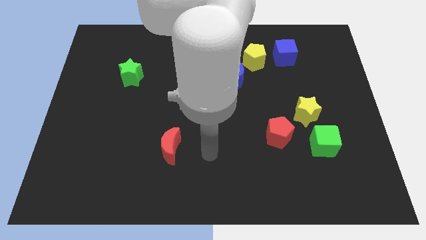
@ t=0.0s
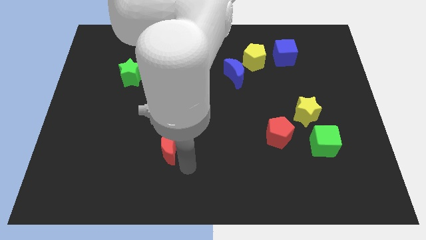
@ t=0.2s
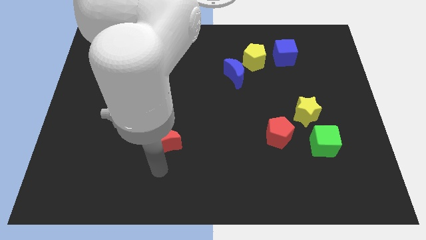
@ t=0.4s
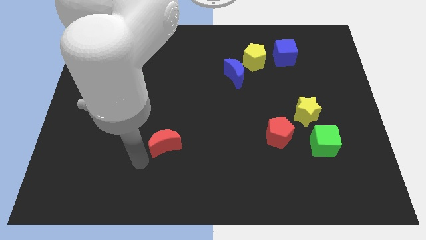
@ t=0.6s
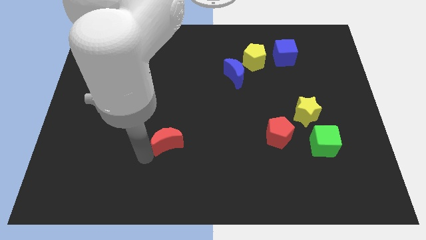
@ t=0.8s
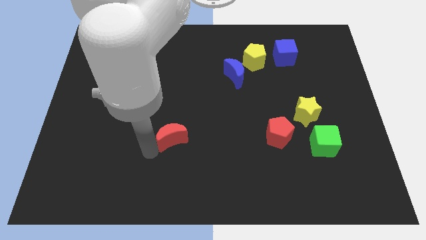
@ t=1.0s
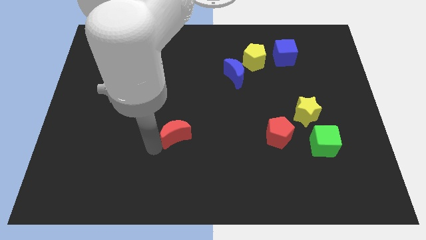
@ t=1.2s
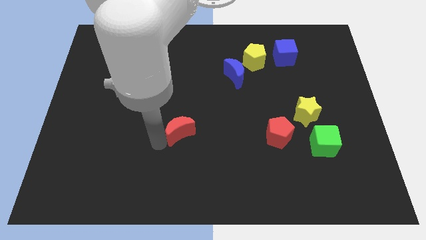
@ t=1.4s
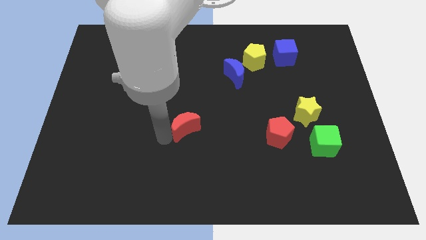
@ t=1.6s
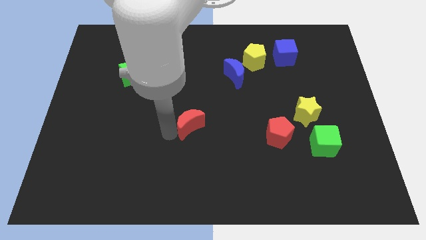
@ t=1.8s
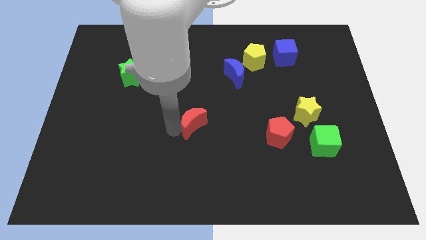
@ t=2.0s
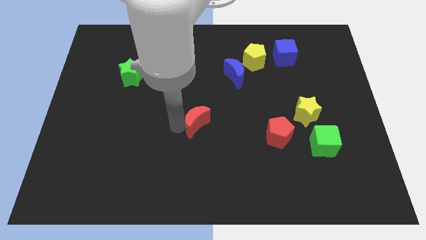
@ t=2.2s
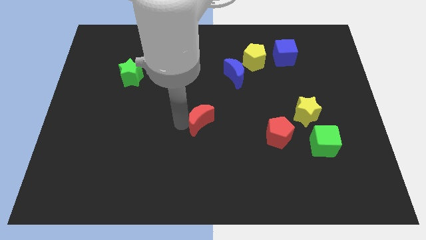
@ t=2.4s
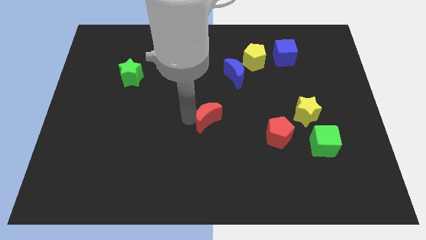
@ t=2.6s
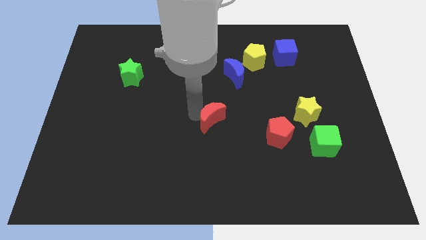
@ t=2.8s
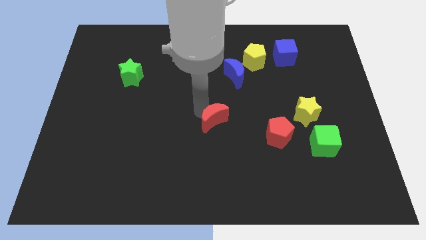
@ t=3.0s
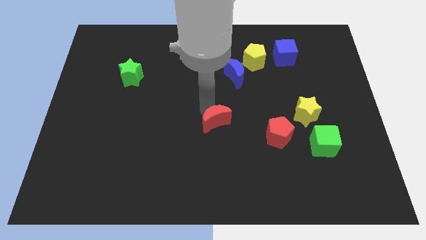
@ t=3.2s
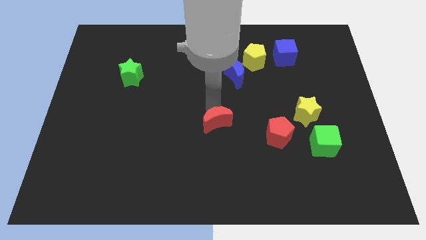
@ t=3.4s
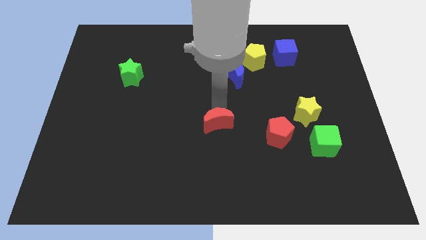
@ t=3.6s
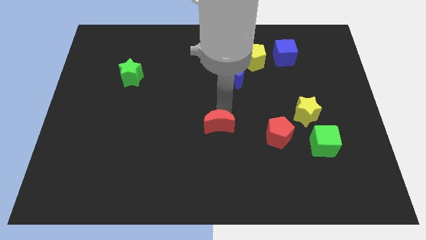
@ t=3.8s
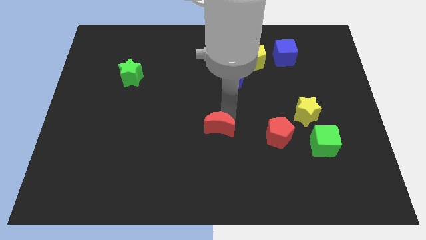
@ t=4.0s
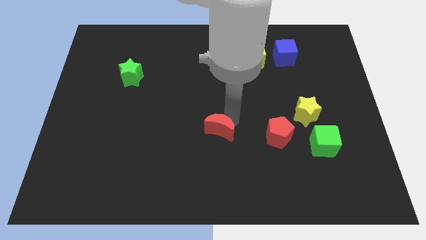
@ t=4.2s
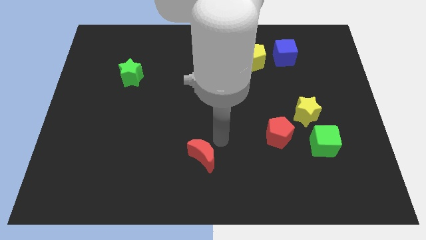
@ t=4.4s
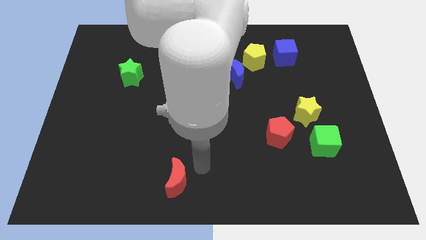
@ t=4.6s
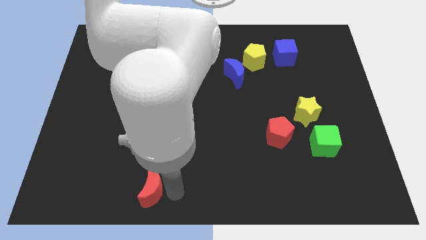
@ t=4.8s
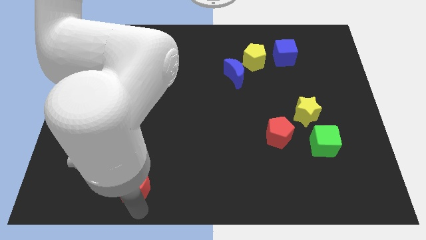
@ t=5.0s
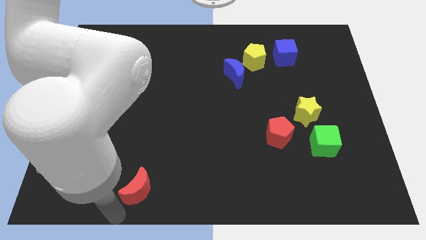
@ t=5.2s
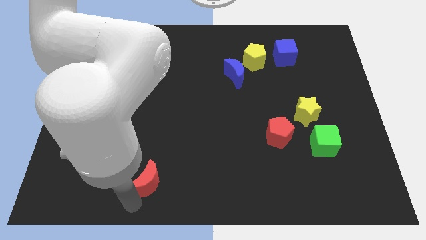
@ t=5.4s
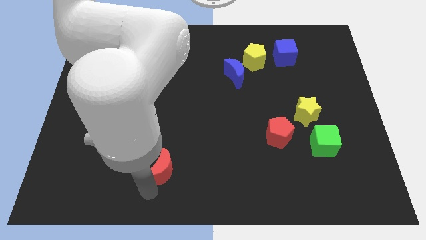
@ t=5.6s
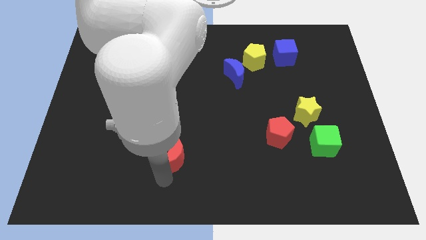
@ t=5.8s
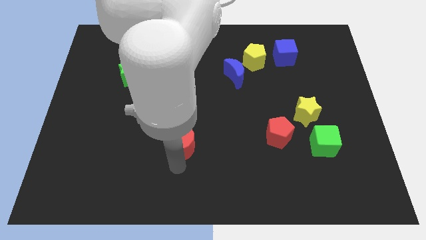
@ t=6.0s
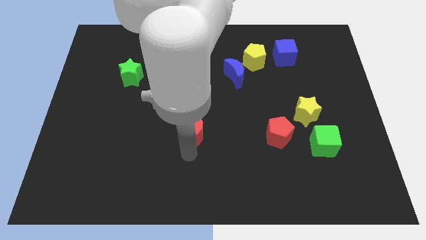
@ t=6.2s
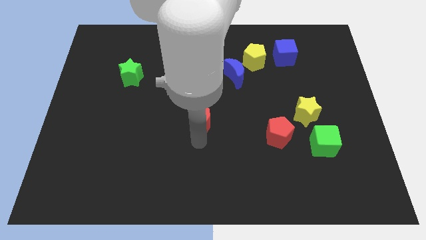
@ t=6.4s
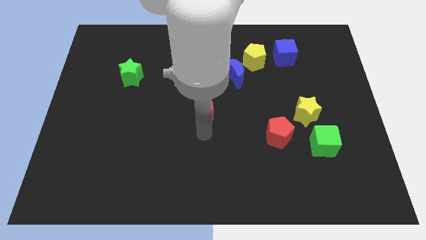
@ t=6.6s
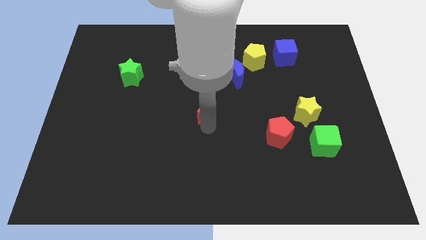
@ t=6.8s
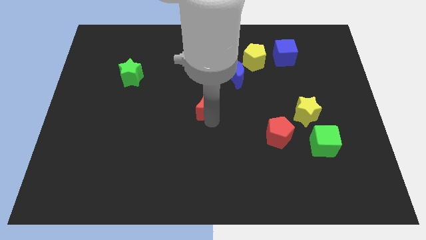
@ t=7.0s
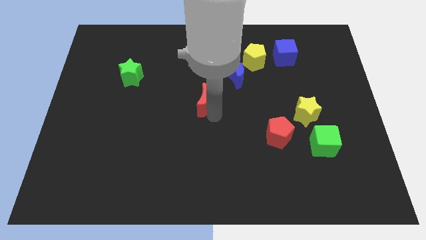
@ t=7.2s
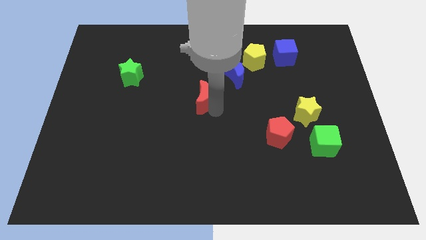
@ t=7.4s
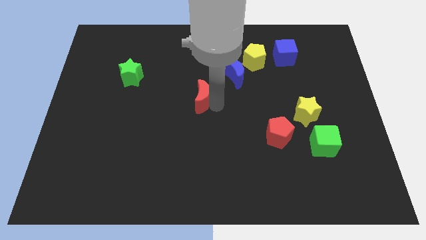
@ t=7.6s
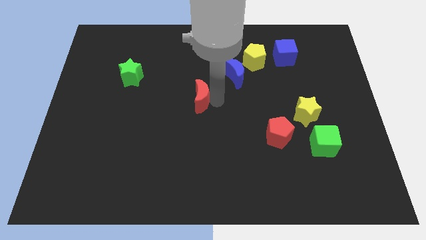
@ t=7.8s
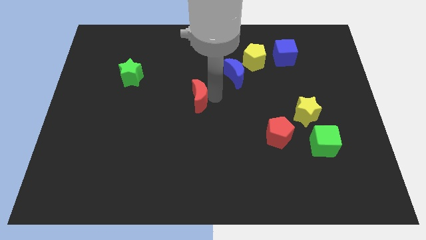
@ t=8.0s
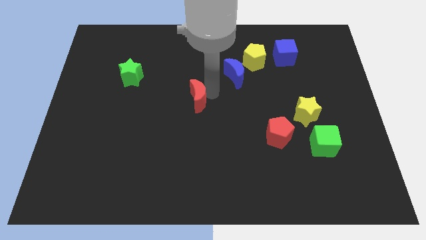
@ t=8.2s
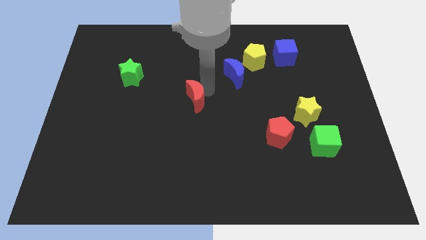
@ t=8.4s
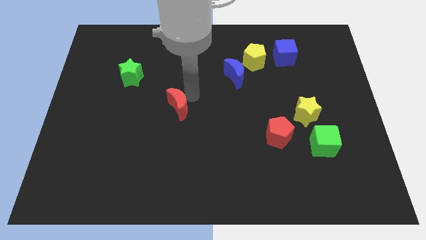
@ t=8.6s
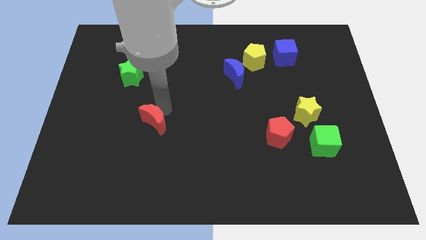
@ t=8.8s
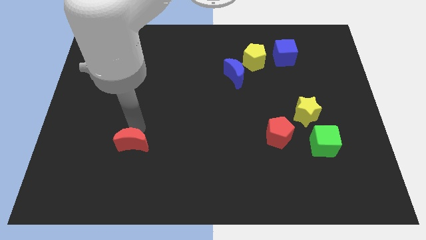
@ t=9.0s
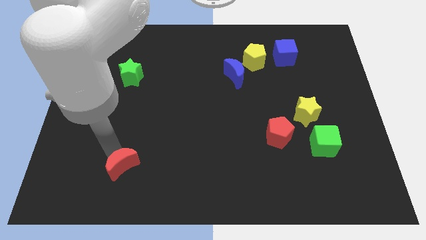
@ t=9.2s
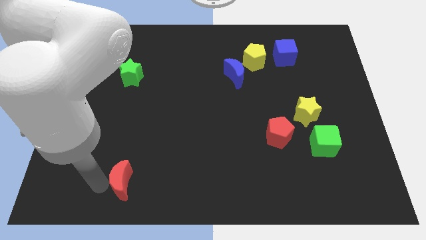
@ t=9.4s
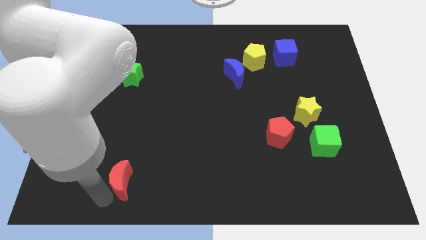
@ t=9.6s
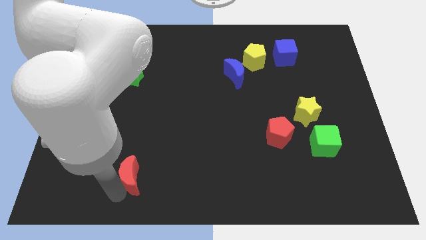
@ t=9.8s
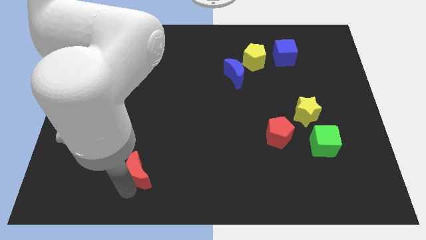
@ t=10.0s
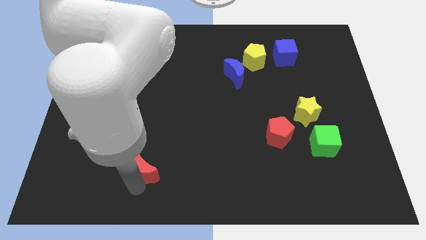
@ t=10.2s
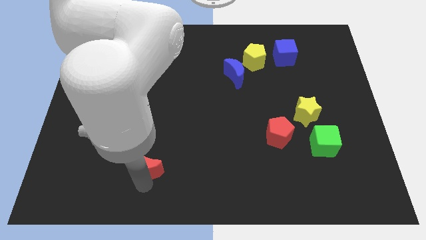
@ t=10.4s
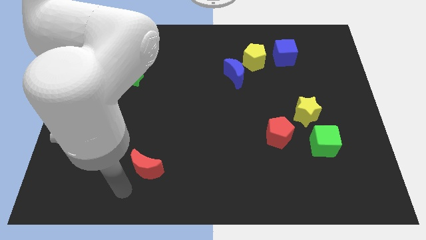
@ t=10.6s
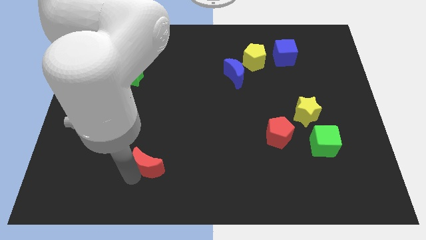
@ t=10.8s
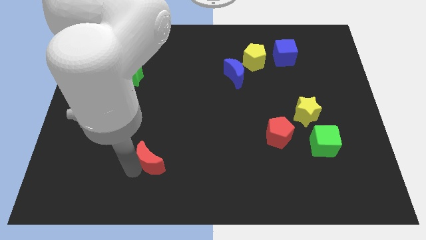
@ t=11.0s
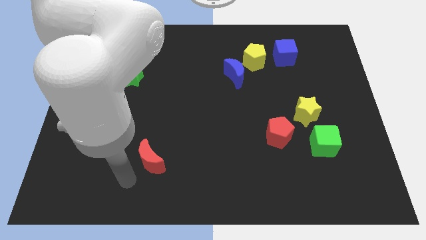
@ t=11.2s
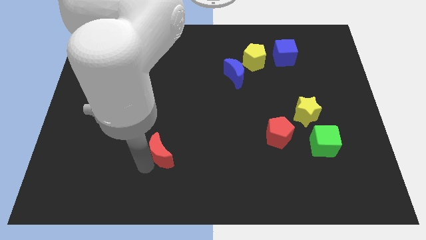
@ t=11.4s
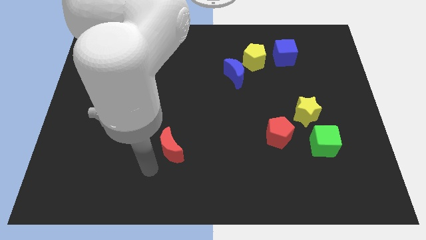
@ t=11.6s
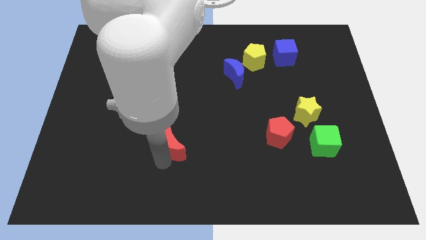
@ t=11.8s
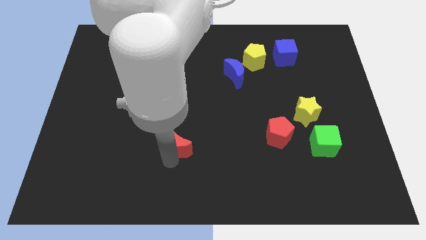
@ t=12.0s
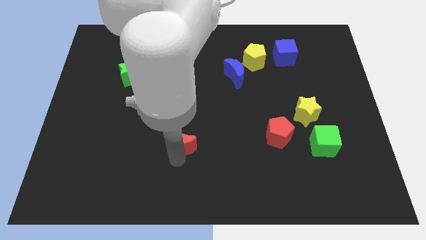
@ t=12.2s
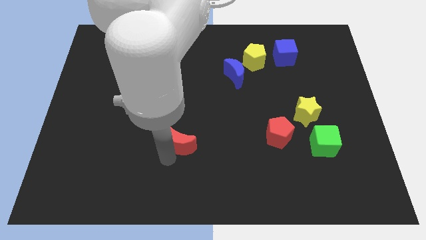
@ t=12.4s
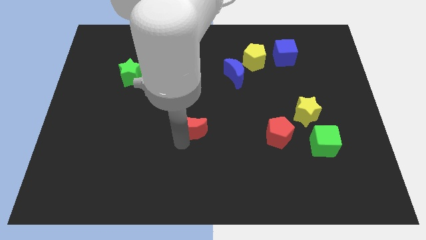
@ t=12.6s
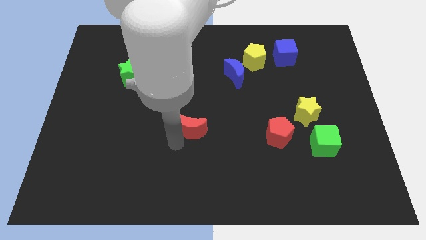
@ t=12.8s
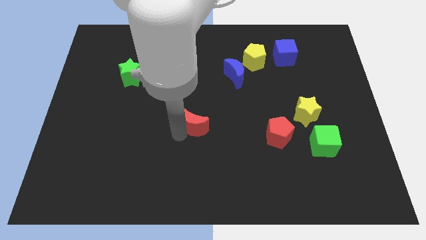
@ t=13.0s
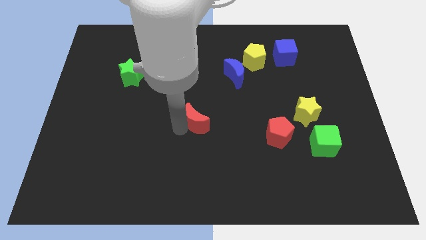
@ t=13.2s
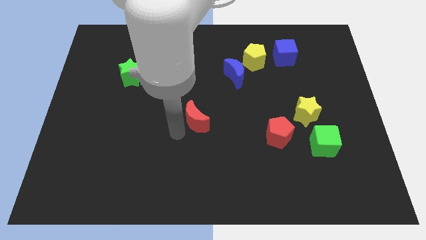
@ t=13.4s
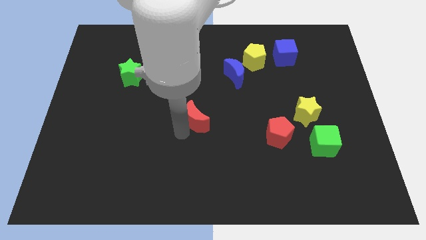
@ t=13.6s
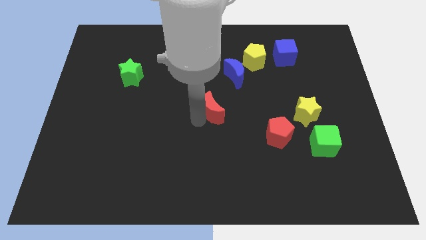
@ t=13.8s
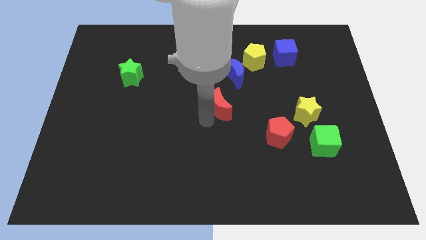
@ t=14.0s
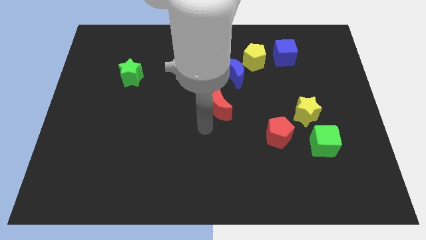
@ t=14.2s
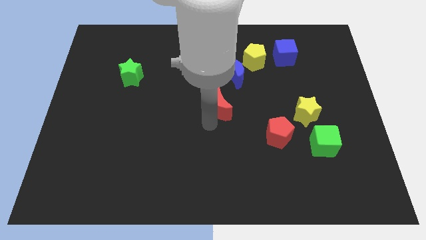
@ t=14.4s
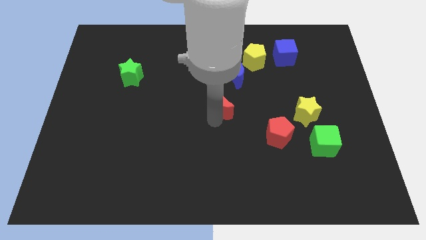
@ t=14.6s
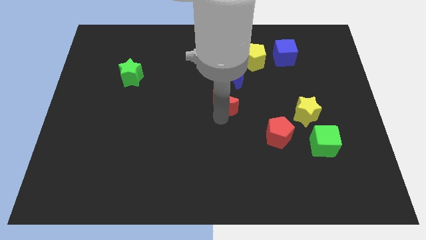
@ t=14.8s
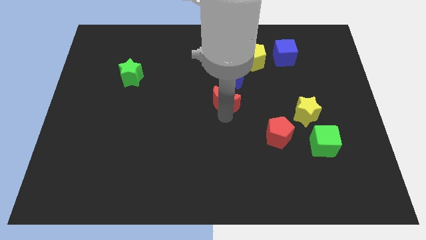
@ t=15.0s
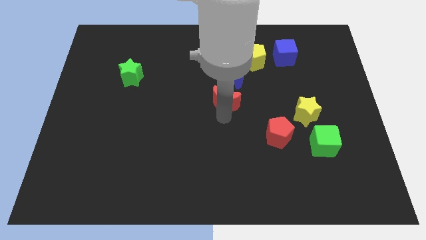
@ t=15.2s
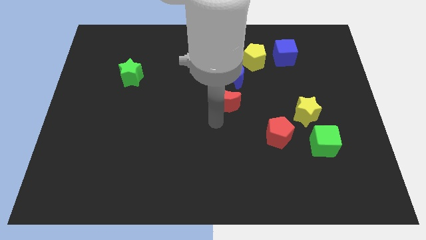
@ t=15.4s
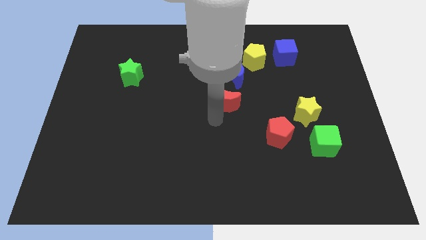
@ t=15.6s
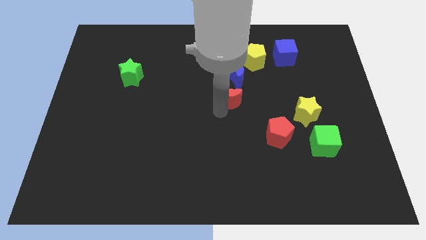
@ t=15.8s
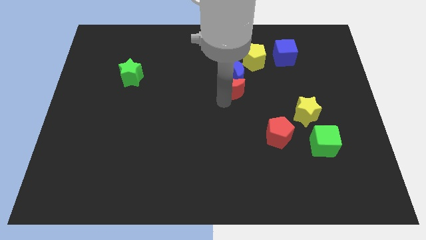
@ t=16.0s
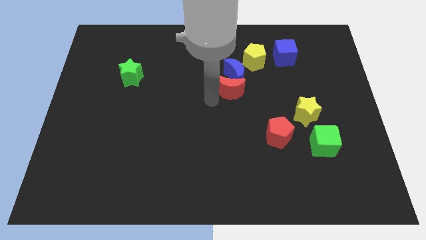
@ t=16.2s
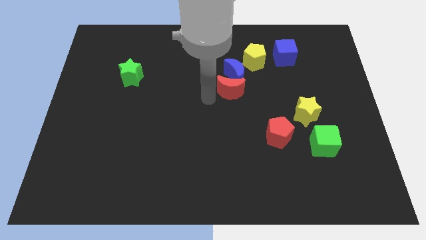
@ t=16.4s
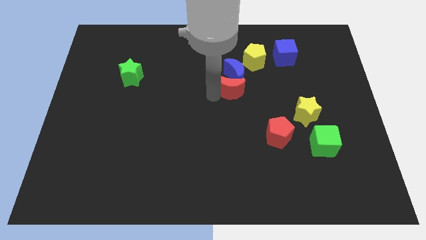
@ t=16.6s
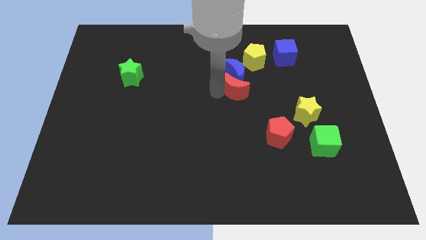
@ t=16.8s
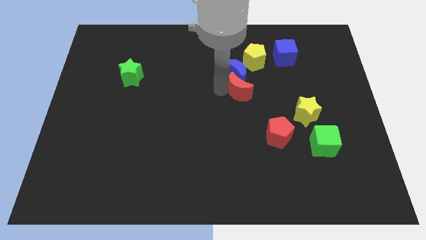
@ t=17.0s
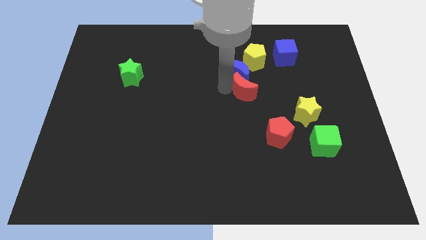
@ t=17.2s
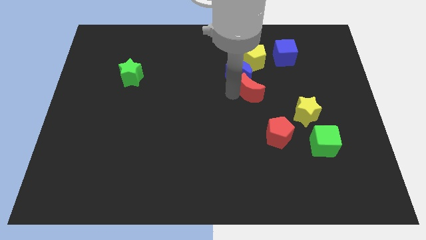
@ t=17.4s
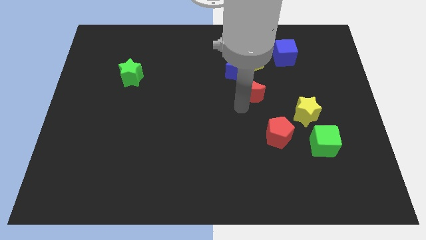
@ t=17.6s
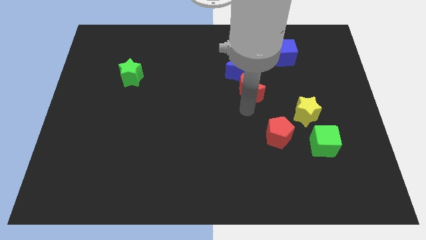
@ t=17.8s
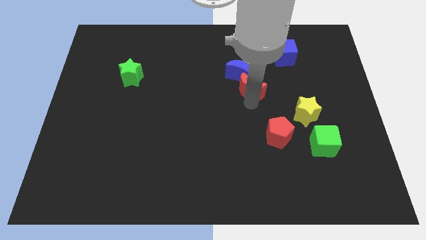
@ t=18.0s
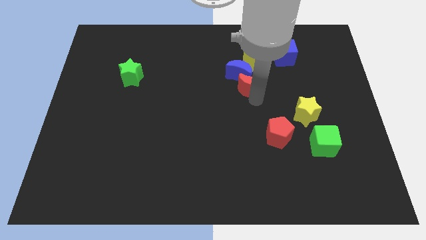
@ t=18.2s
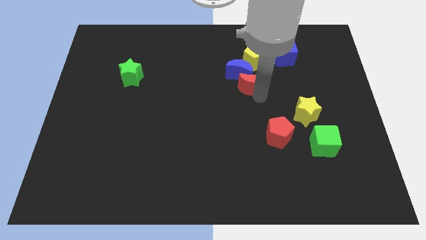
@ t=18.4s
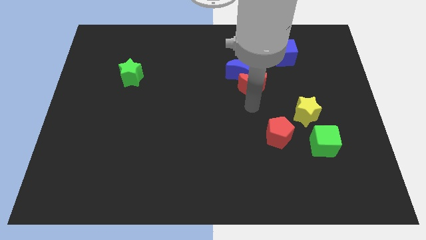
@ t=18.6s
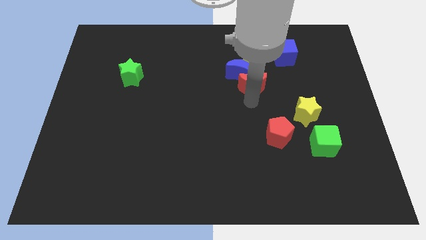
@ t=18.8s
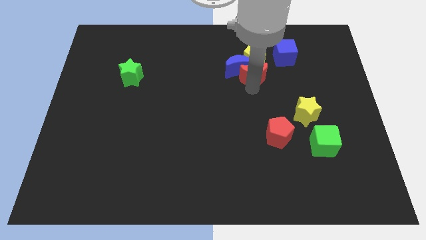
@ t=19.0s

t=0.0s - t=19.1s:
put the red moon towards the yellow pentagon
